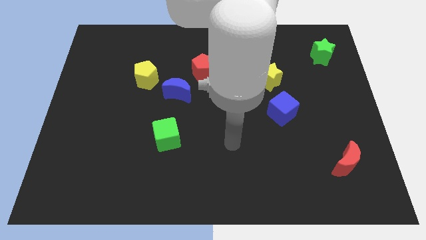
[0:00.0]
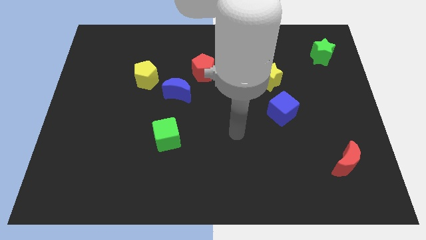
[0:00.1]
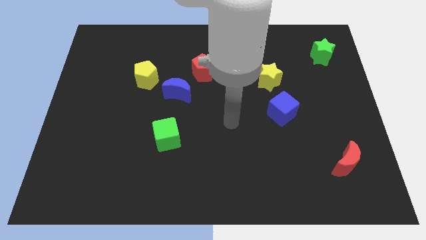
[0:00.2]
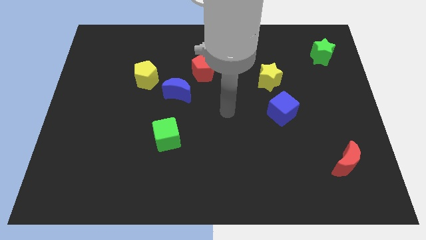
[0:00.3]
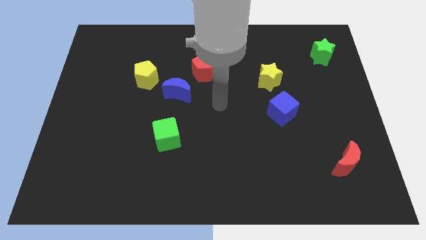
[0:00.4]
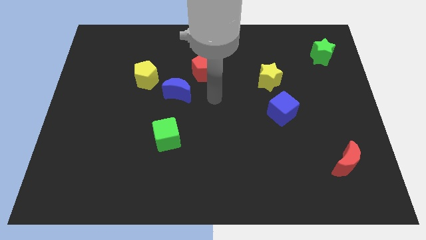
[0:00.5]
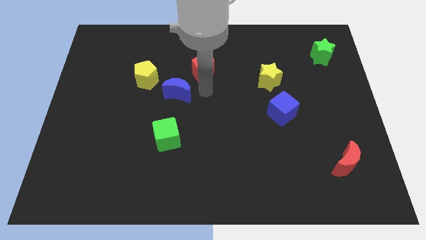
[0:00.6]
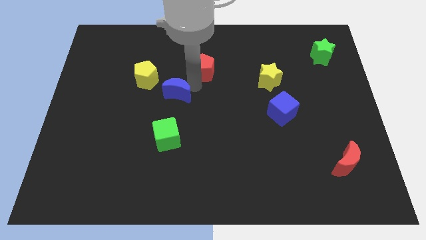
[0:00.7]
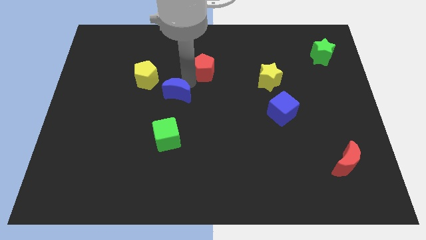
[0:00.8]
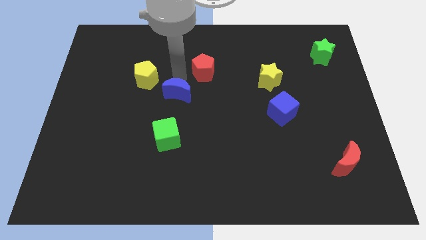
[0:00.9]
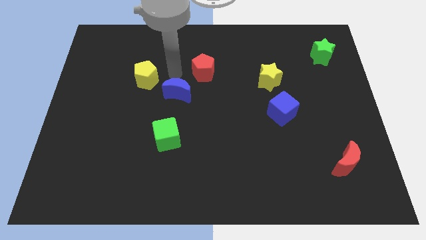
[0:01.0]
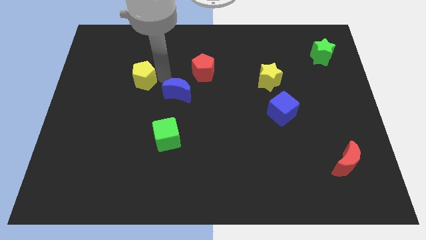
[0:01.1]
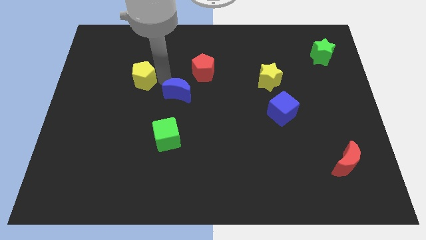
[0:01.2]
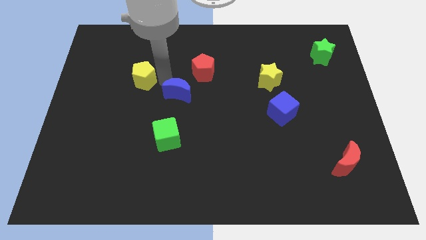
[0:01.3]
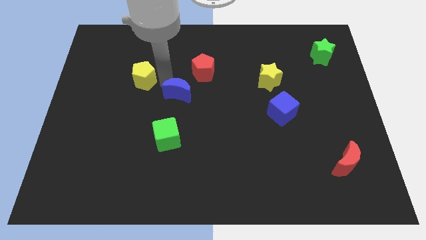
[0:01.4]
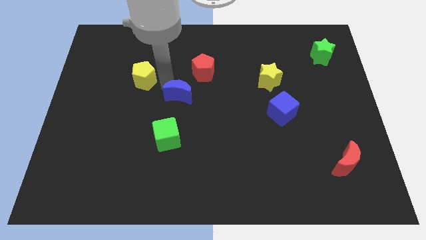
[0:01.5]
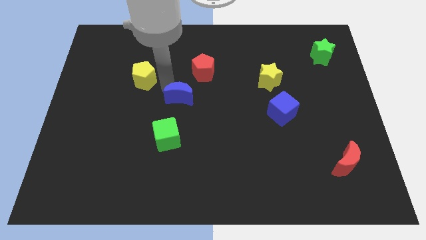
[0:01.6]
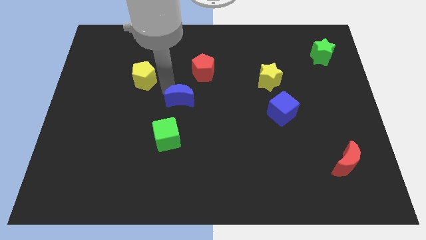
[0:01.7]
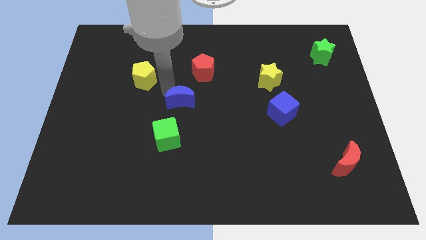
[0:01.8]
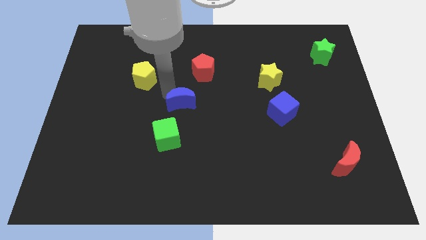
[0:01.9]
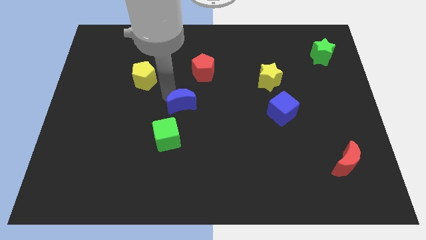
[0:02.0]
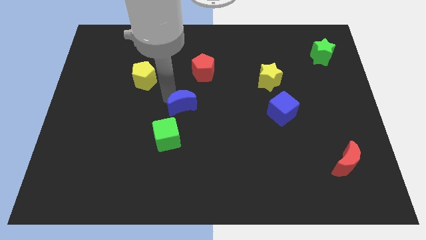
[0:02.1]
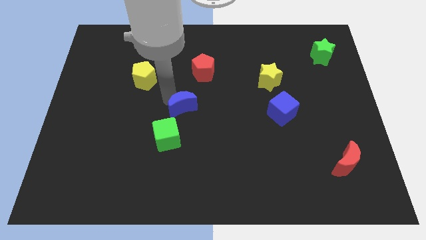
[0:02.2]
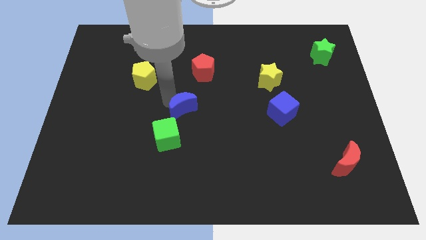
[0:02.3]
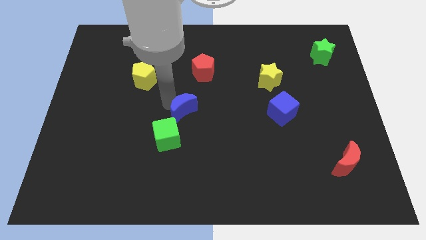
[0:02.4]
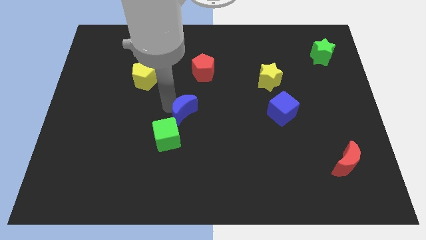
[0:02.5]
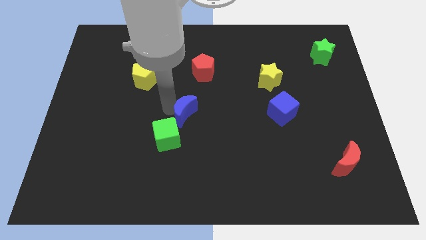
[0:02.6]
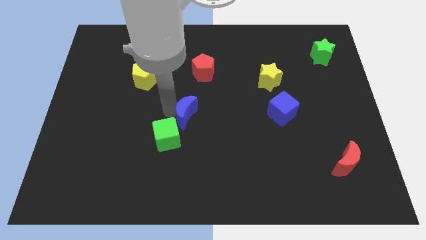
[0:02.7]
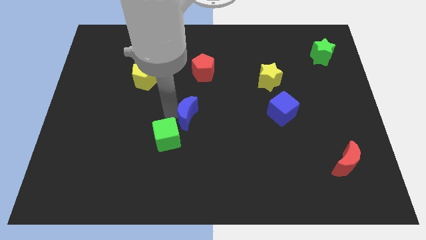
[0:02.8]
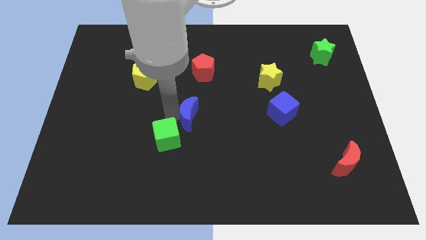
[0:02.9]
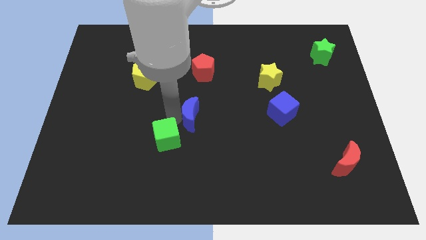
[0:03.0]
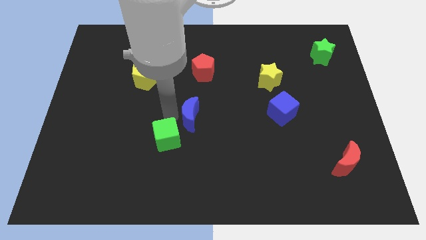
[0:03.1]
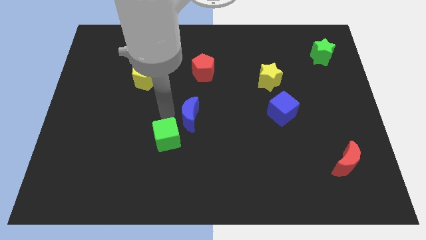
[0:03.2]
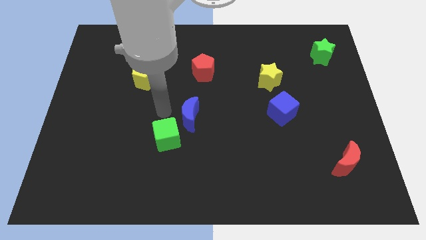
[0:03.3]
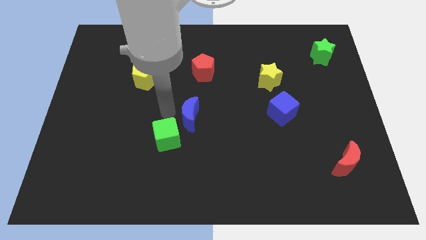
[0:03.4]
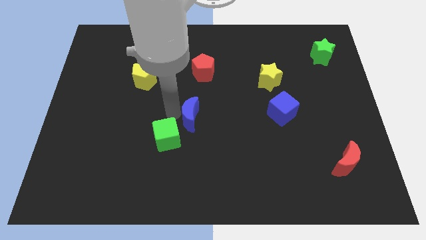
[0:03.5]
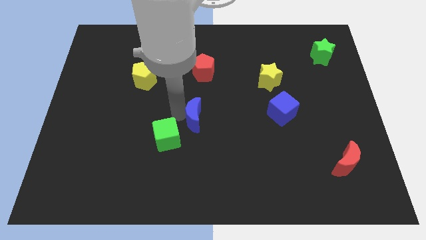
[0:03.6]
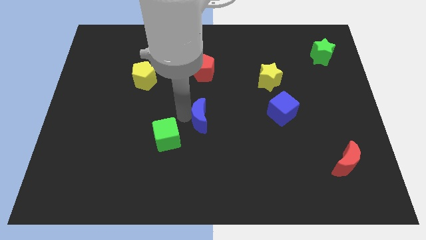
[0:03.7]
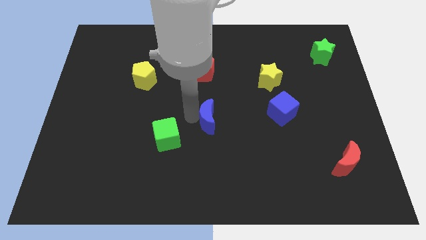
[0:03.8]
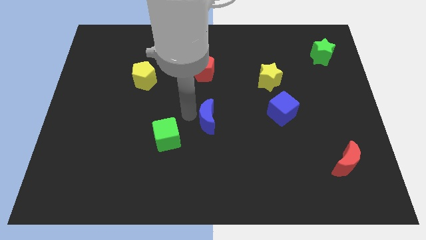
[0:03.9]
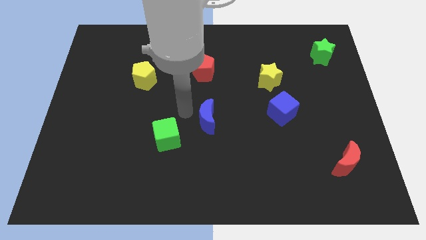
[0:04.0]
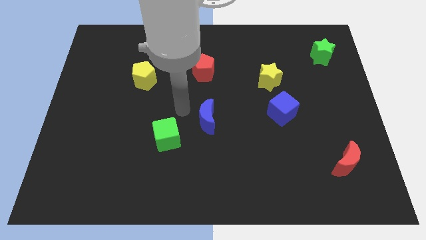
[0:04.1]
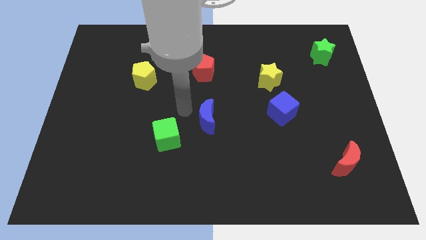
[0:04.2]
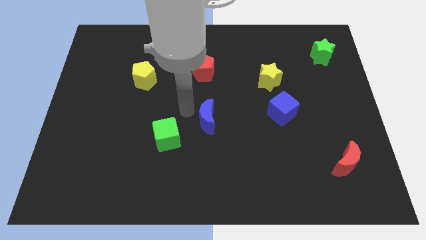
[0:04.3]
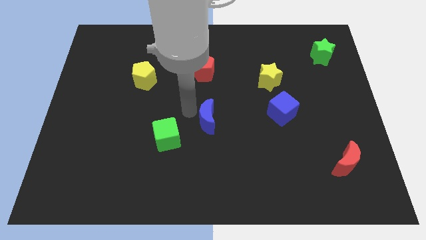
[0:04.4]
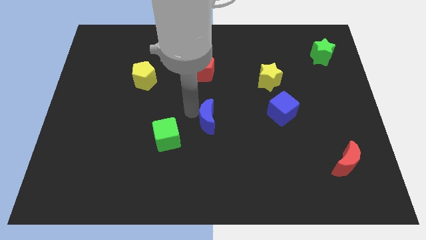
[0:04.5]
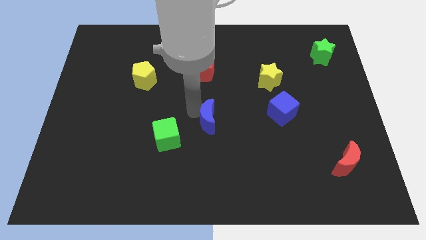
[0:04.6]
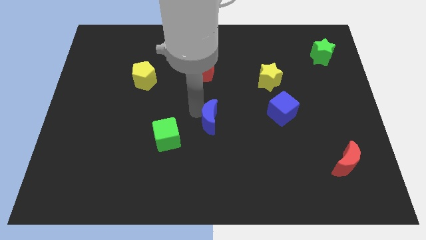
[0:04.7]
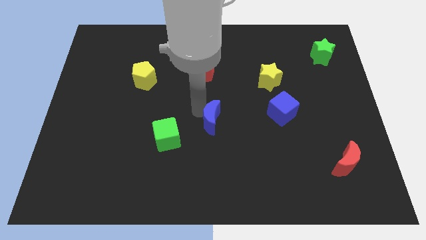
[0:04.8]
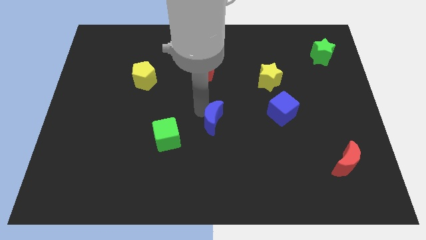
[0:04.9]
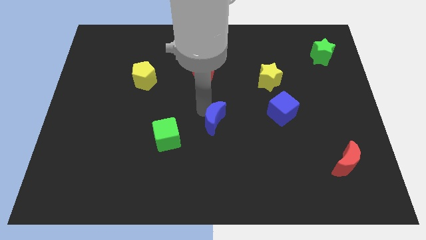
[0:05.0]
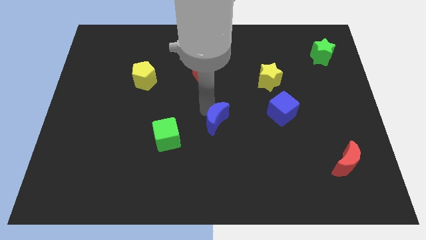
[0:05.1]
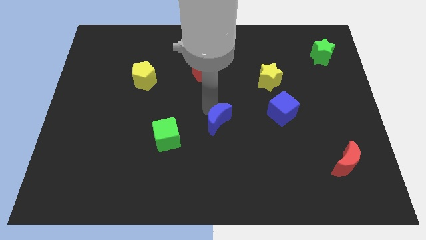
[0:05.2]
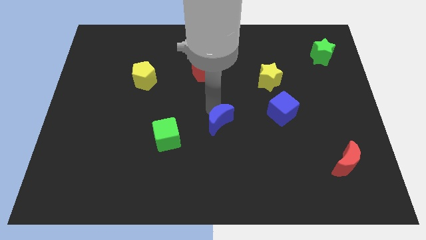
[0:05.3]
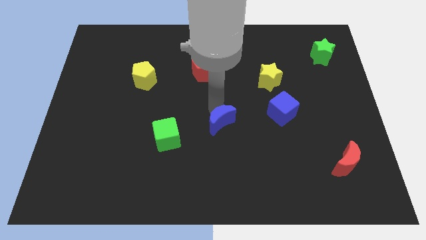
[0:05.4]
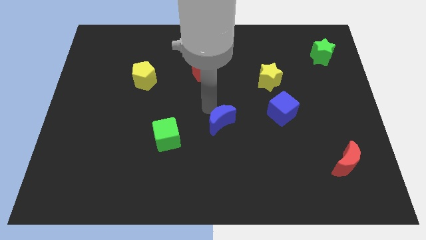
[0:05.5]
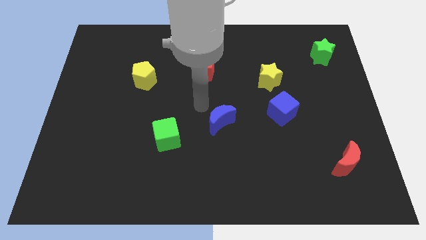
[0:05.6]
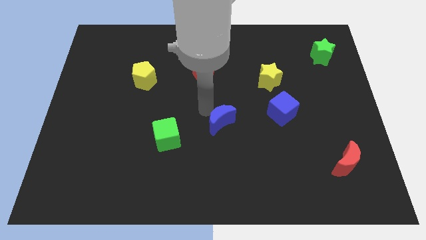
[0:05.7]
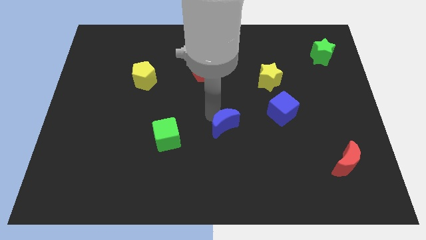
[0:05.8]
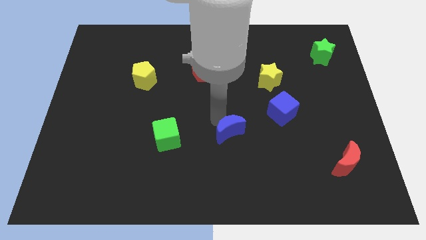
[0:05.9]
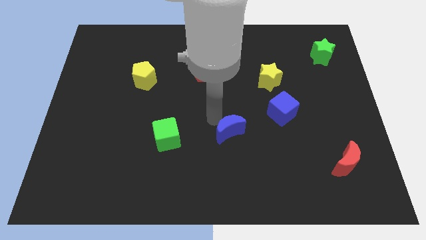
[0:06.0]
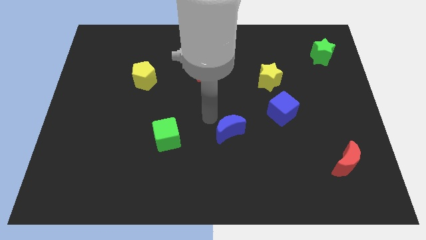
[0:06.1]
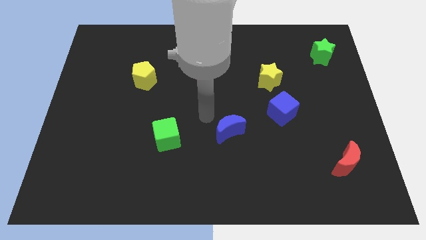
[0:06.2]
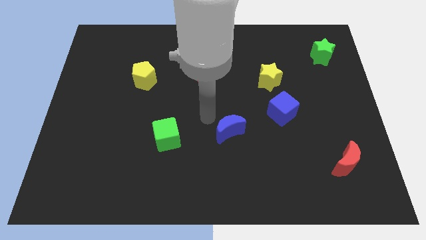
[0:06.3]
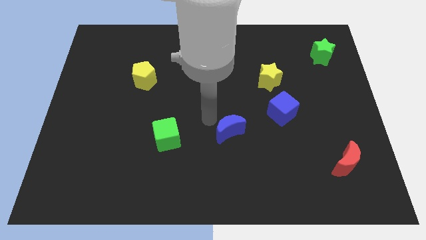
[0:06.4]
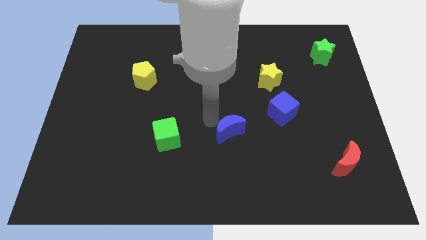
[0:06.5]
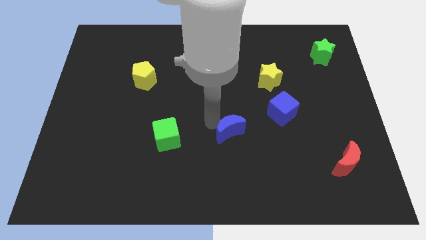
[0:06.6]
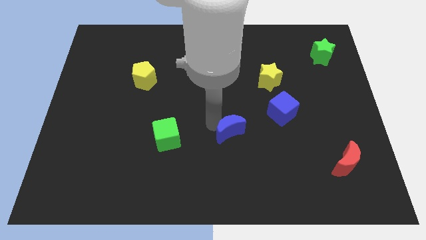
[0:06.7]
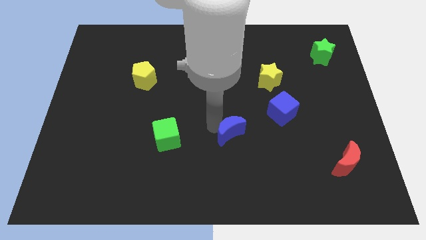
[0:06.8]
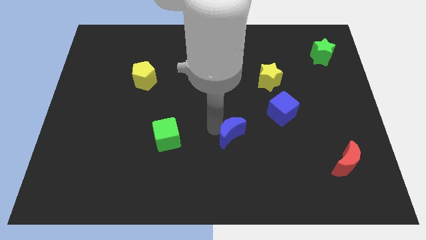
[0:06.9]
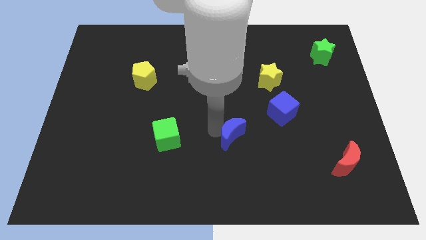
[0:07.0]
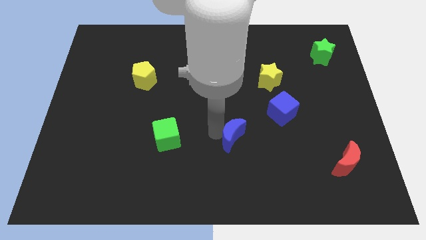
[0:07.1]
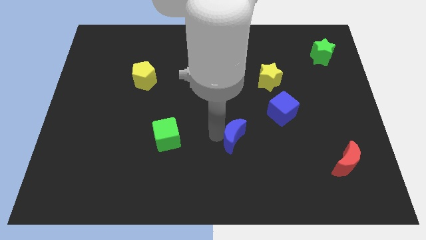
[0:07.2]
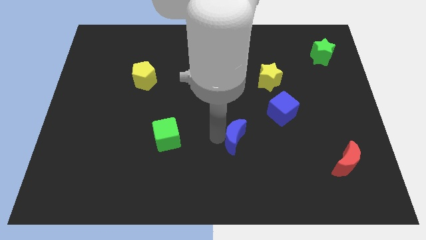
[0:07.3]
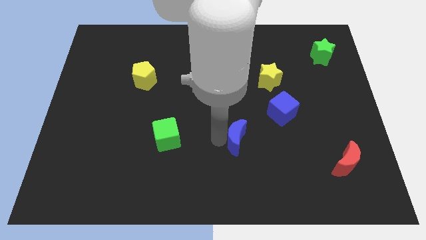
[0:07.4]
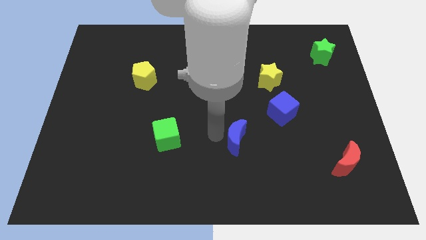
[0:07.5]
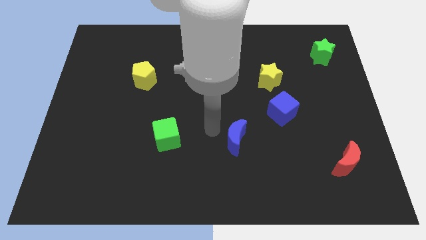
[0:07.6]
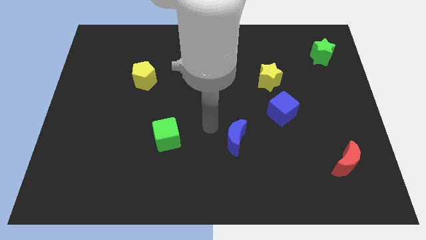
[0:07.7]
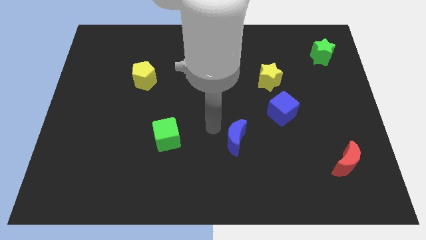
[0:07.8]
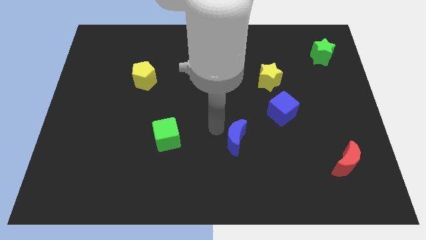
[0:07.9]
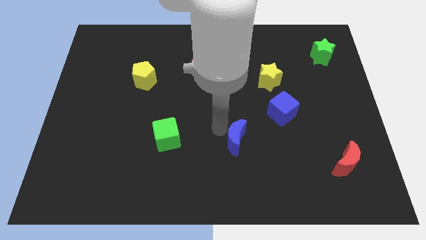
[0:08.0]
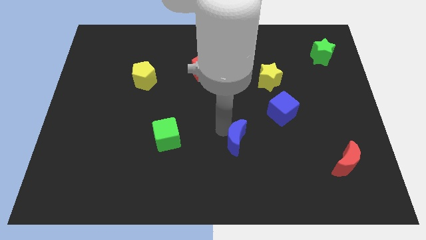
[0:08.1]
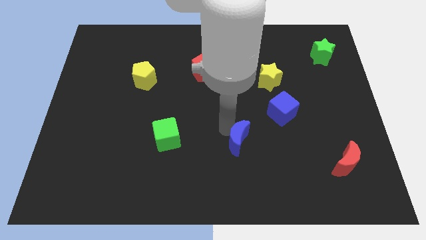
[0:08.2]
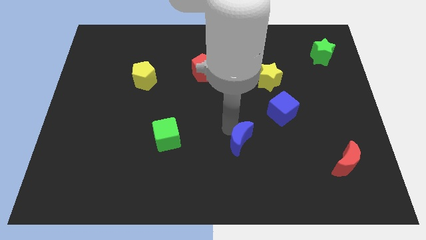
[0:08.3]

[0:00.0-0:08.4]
push the blue moon down and right diagonally
